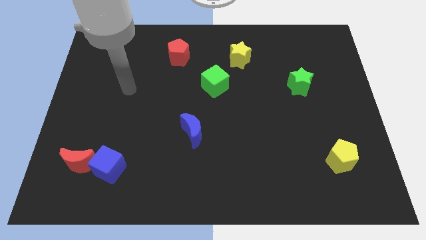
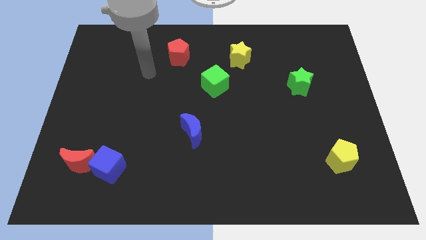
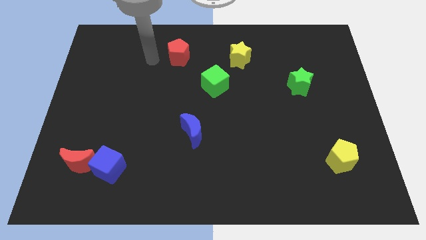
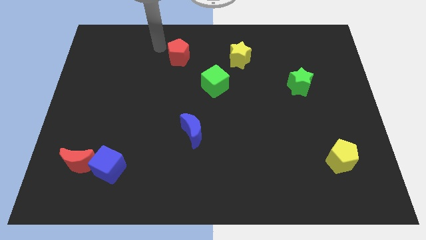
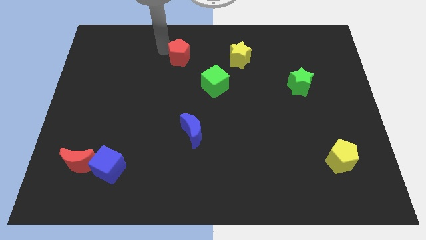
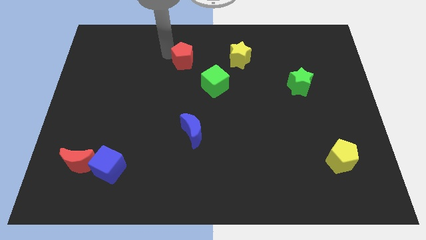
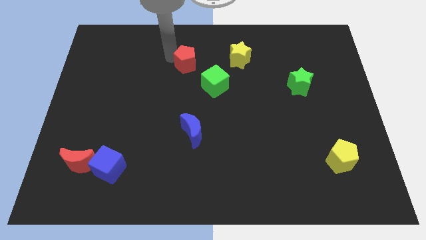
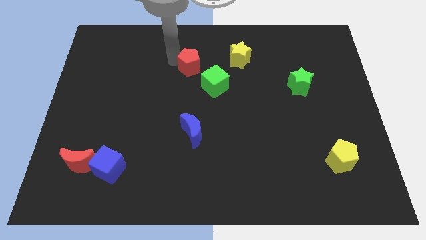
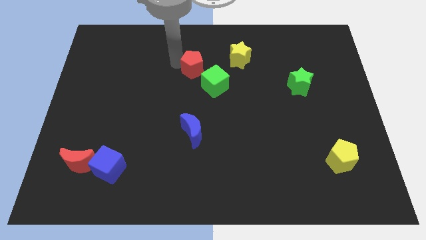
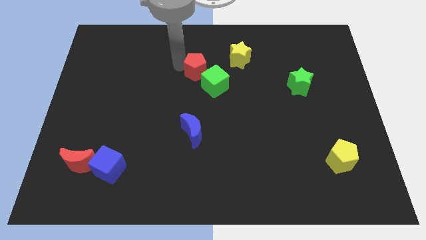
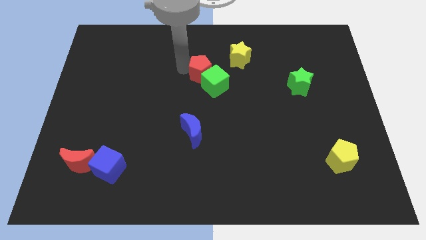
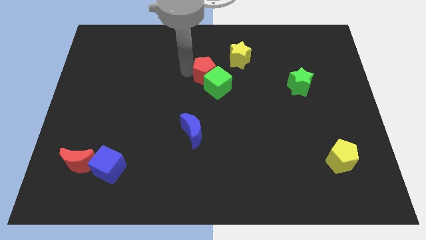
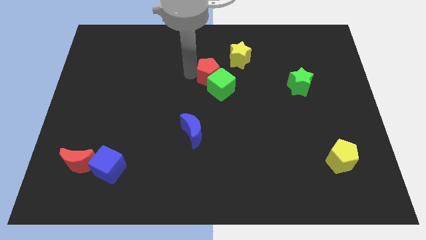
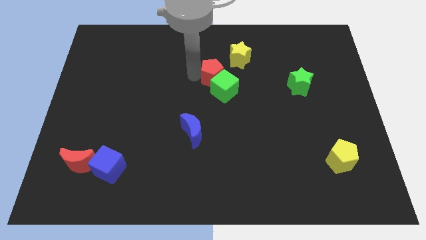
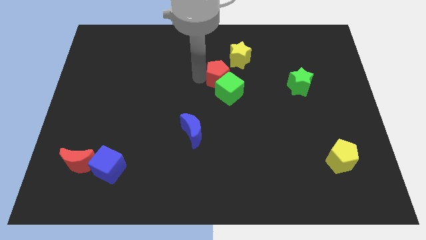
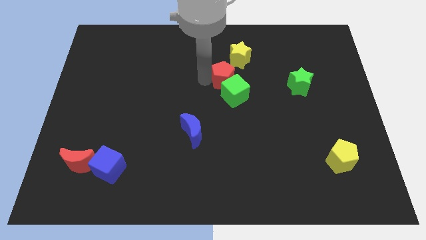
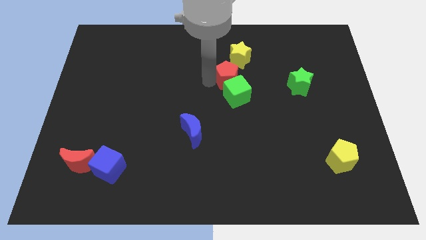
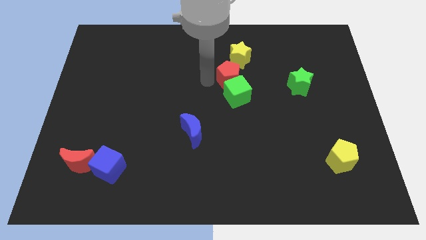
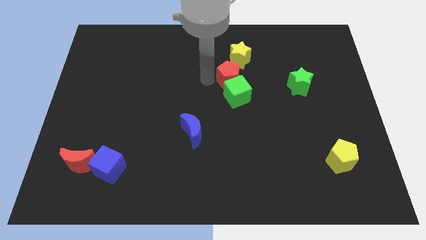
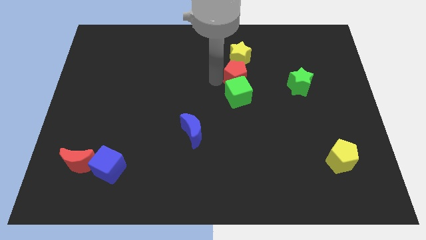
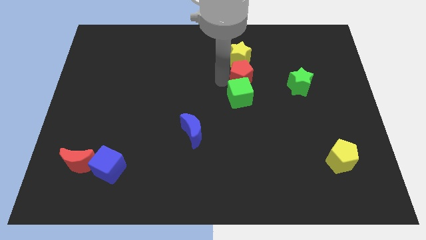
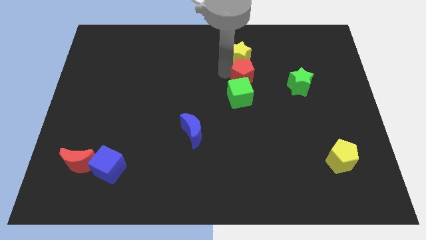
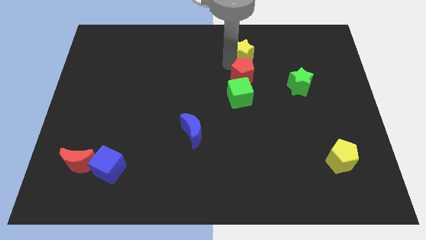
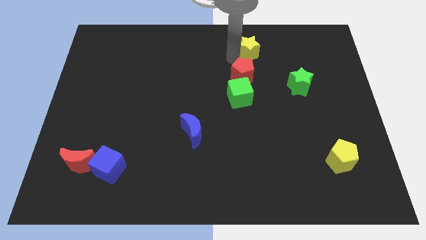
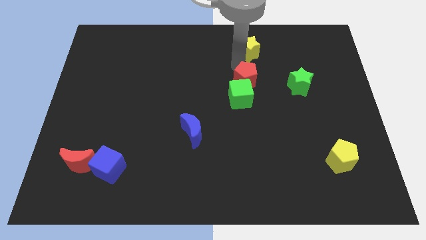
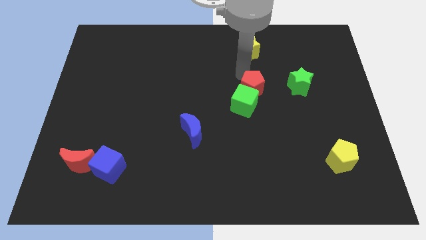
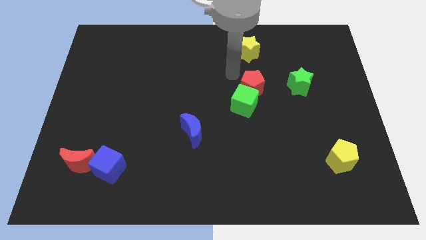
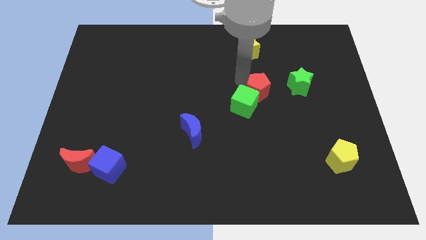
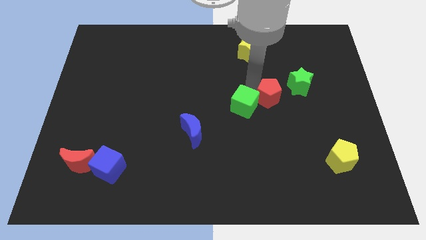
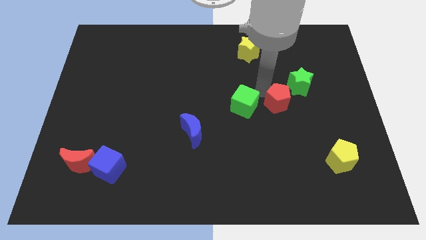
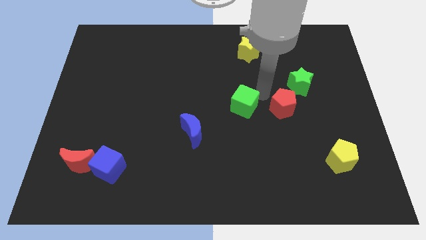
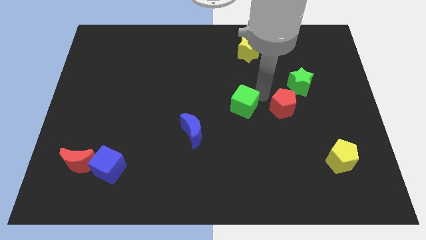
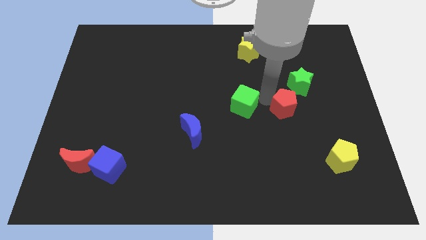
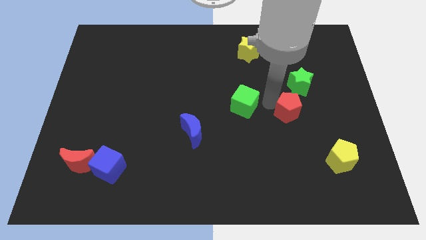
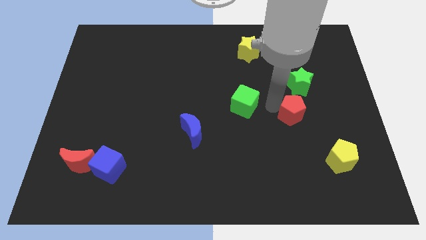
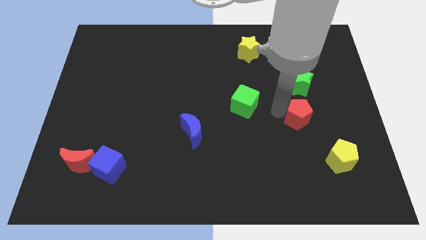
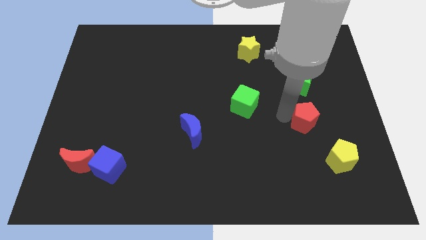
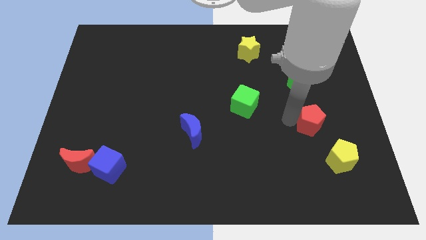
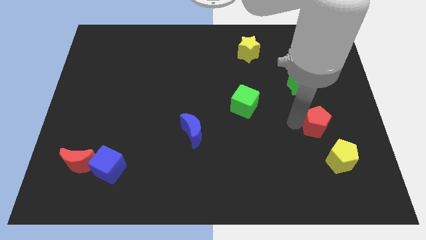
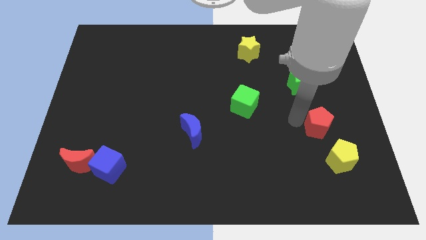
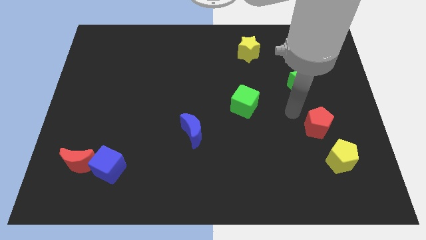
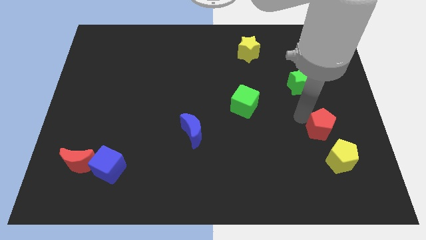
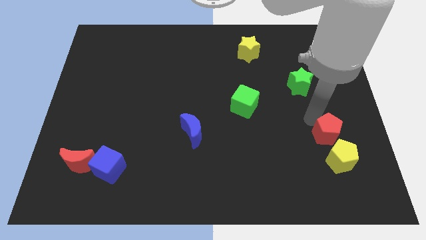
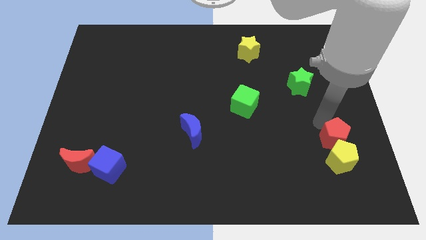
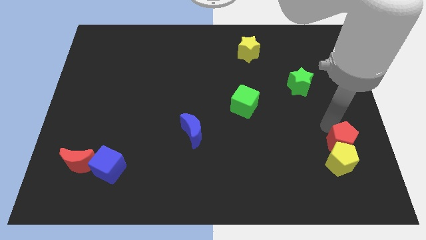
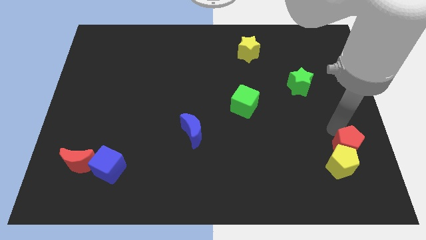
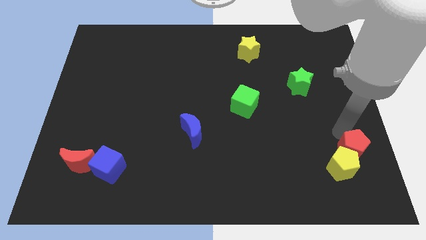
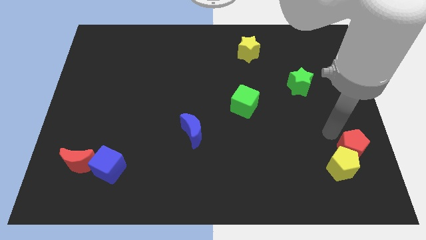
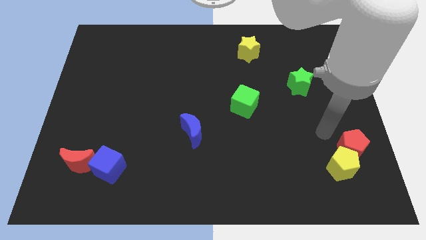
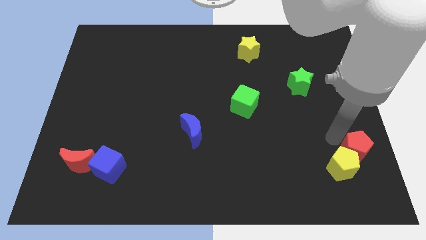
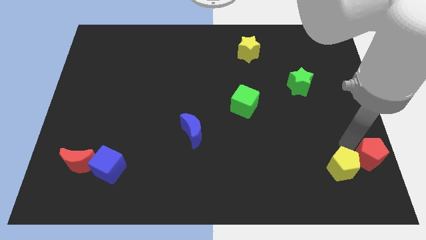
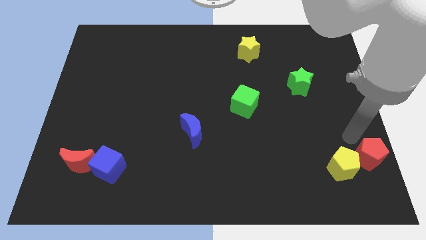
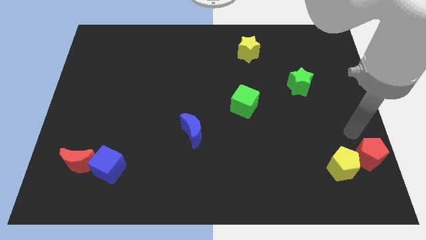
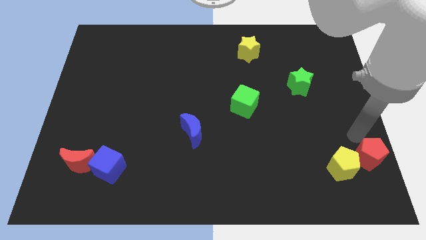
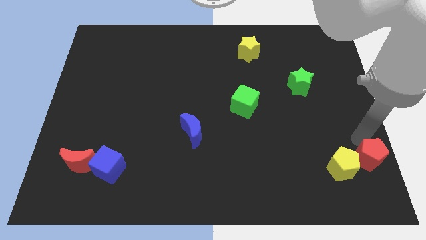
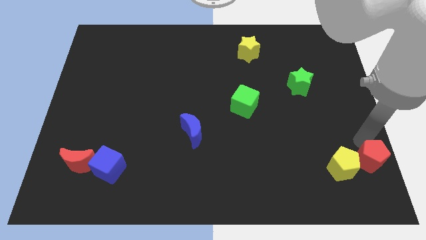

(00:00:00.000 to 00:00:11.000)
put the red pentagon to the bottom right
